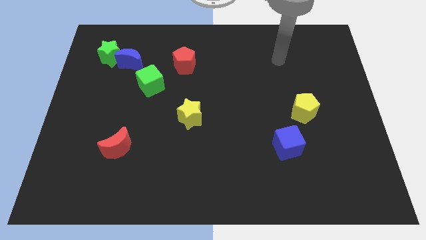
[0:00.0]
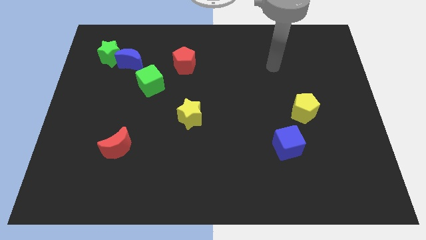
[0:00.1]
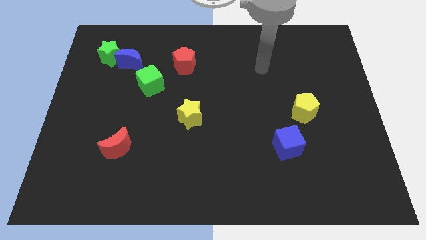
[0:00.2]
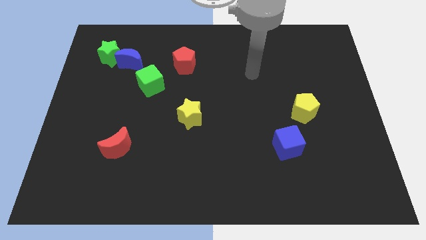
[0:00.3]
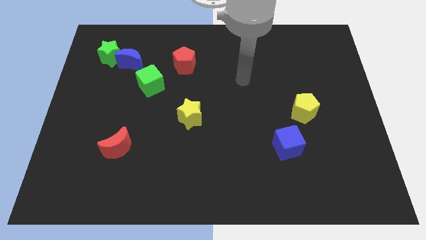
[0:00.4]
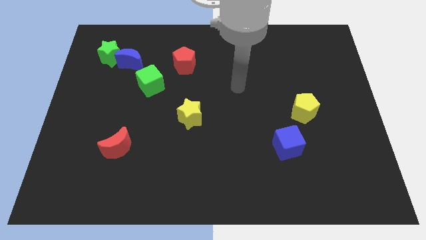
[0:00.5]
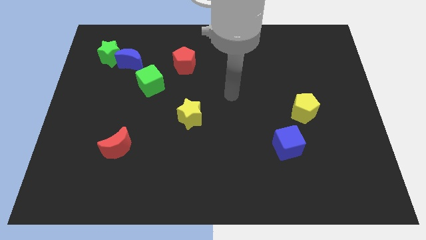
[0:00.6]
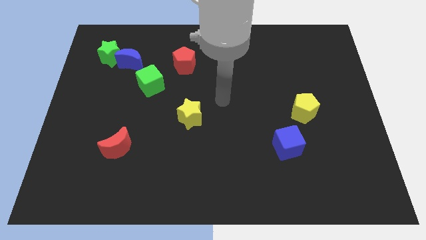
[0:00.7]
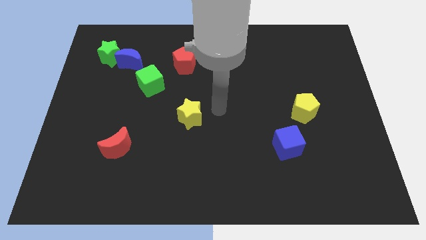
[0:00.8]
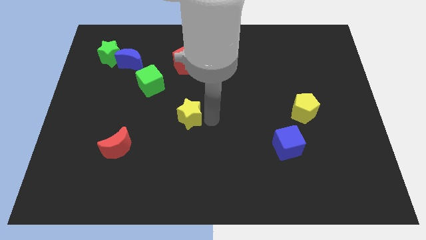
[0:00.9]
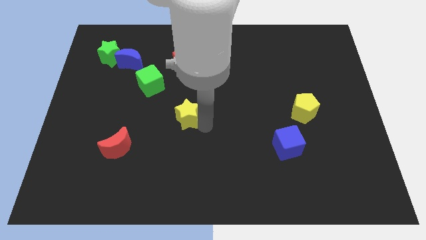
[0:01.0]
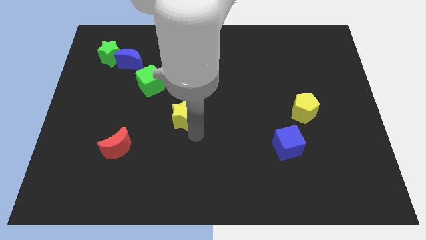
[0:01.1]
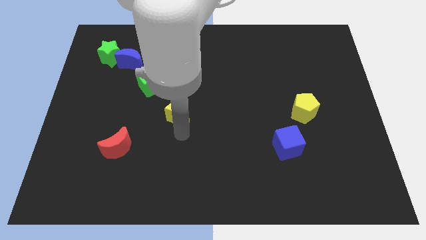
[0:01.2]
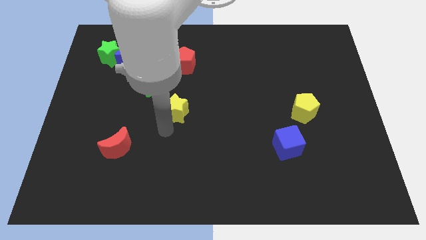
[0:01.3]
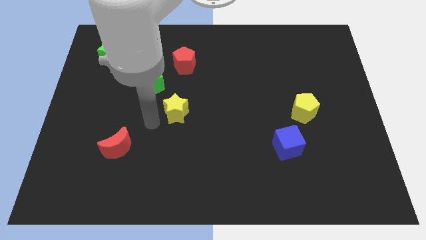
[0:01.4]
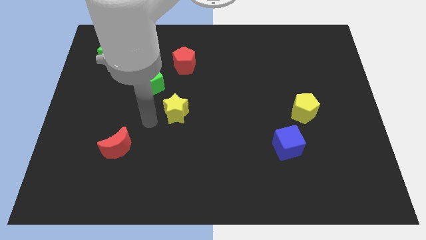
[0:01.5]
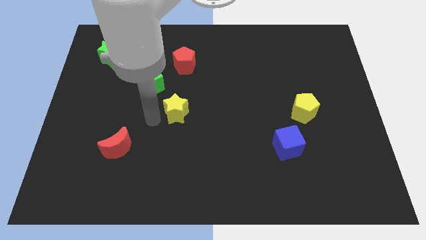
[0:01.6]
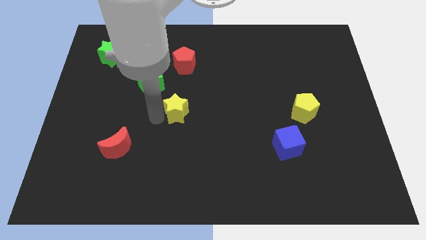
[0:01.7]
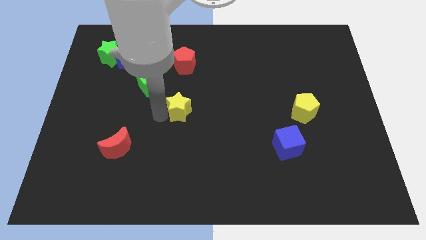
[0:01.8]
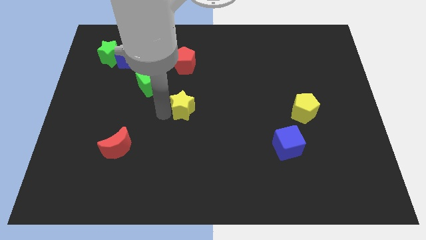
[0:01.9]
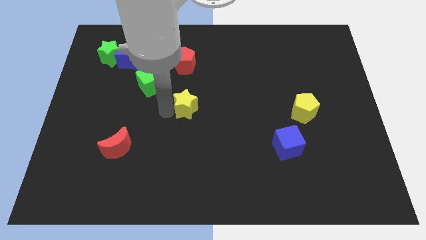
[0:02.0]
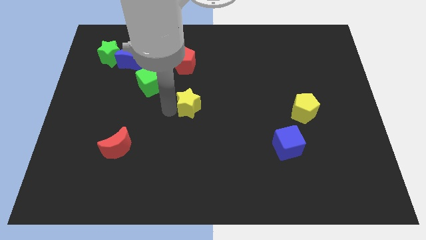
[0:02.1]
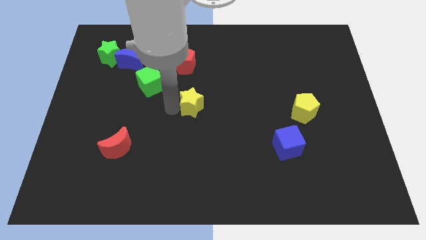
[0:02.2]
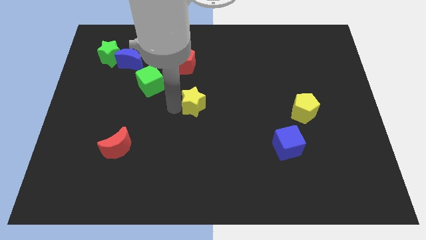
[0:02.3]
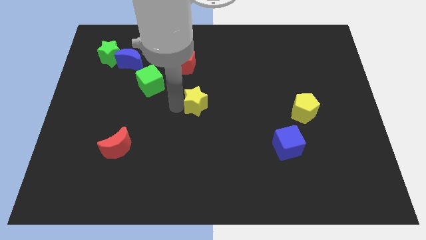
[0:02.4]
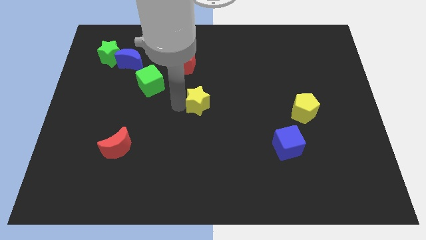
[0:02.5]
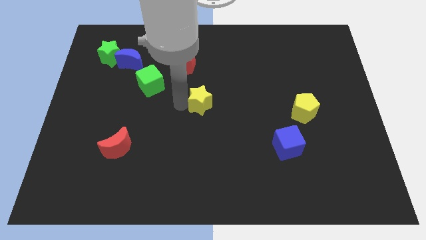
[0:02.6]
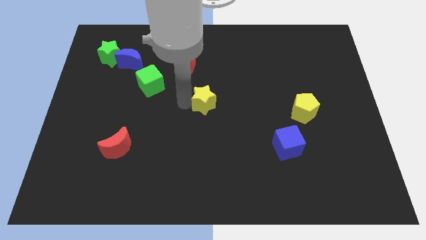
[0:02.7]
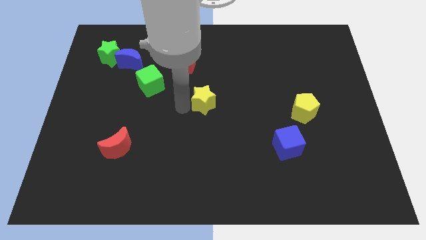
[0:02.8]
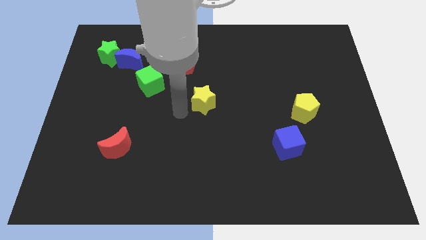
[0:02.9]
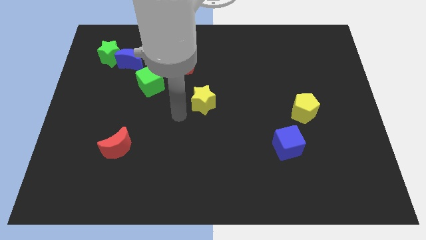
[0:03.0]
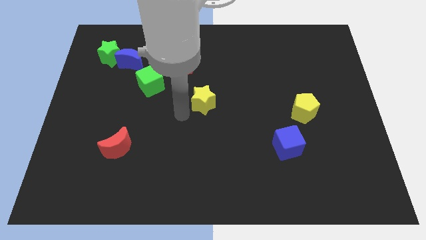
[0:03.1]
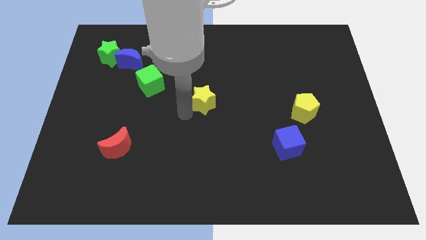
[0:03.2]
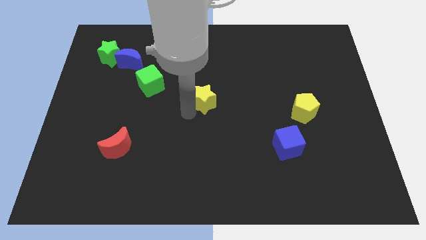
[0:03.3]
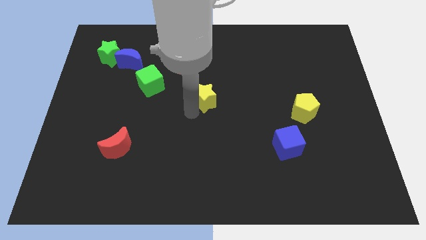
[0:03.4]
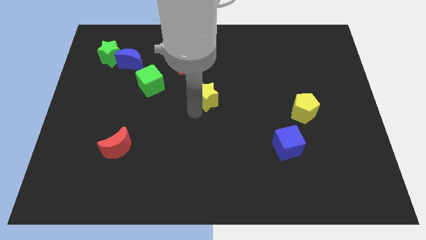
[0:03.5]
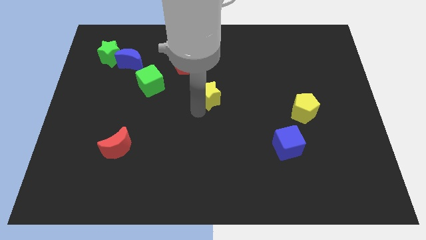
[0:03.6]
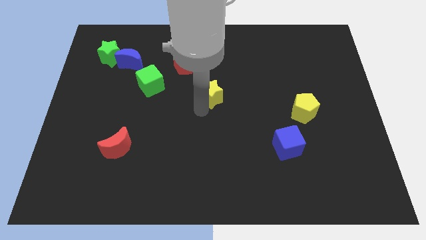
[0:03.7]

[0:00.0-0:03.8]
move the yellow star a little bit up and then to the right

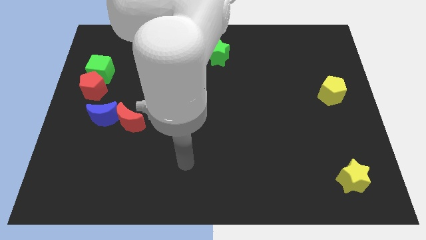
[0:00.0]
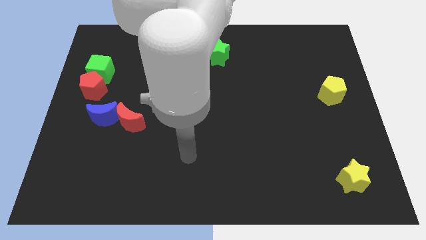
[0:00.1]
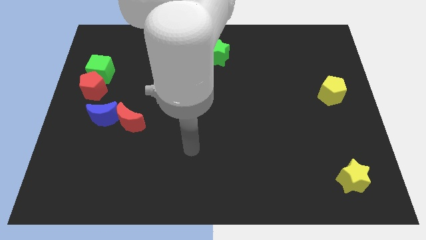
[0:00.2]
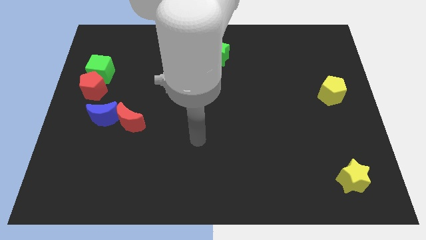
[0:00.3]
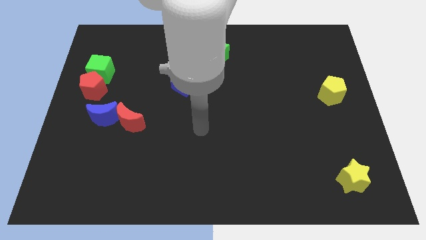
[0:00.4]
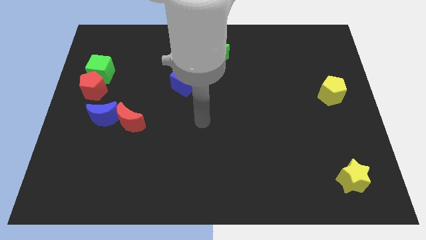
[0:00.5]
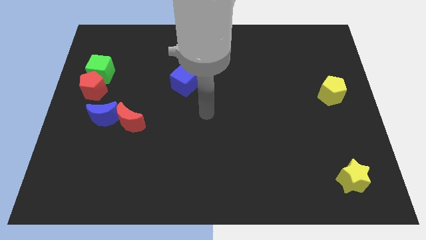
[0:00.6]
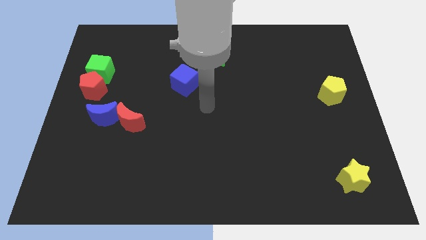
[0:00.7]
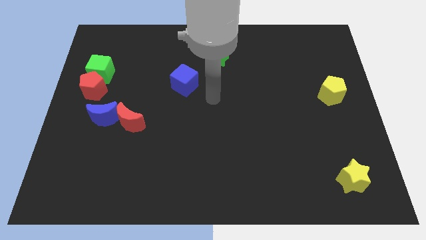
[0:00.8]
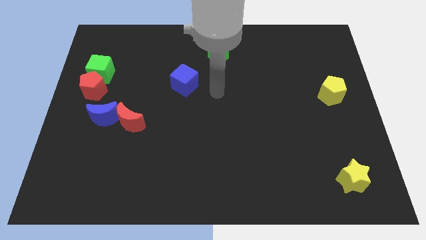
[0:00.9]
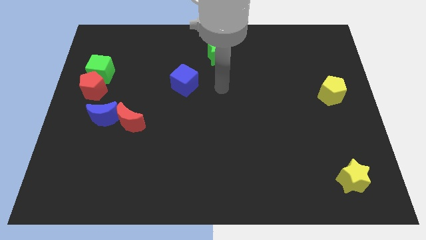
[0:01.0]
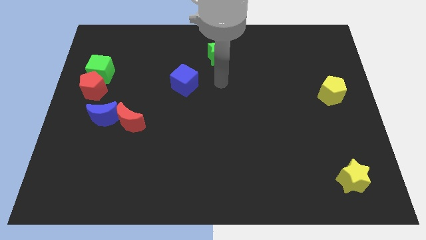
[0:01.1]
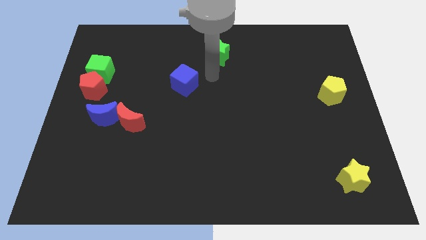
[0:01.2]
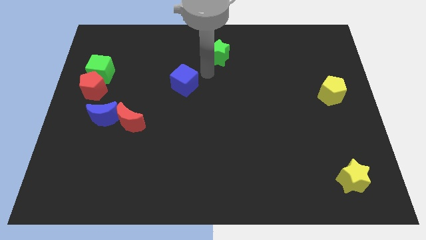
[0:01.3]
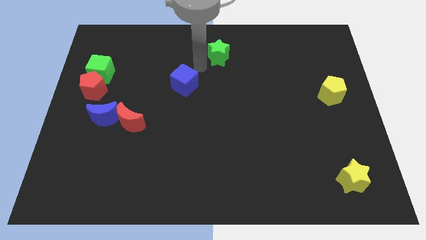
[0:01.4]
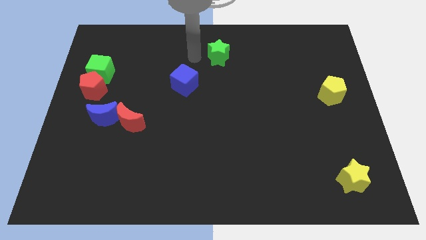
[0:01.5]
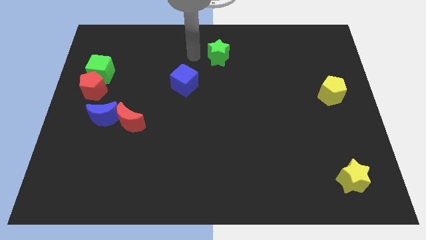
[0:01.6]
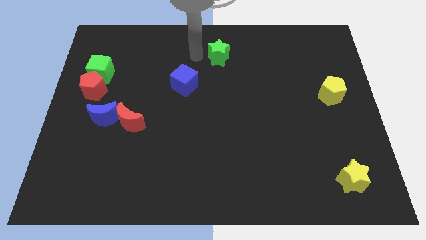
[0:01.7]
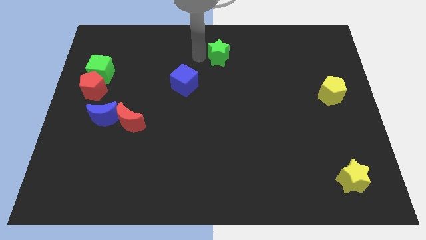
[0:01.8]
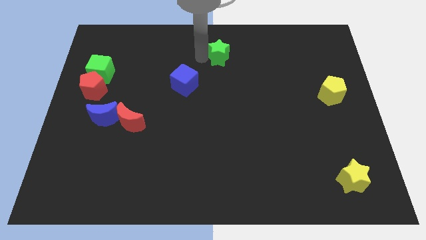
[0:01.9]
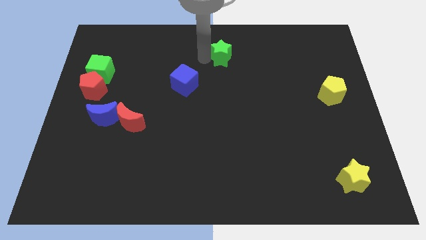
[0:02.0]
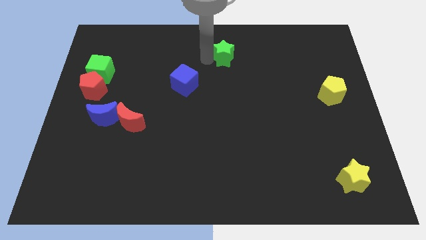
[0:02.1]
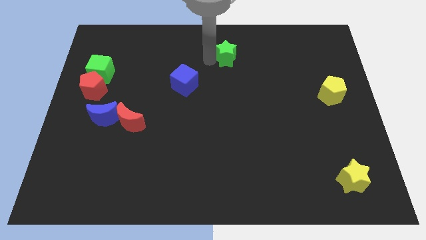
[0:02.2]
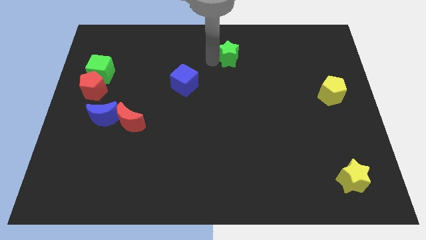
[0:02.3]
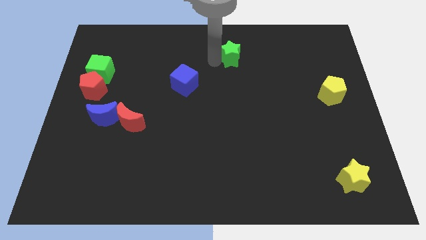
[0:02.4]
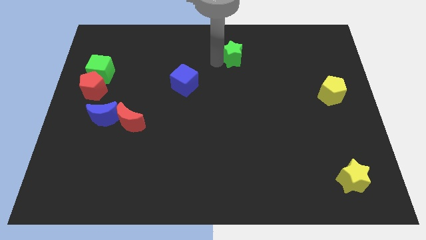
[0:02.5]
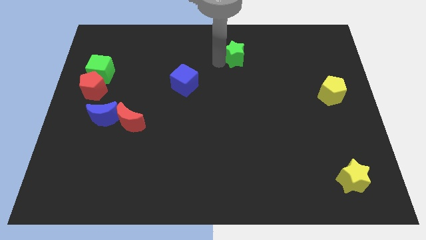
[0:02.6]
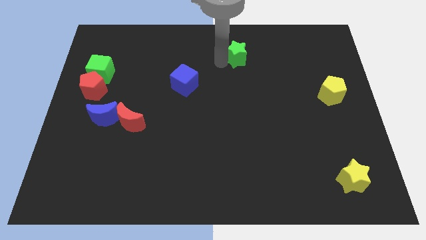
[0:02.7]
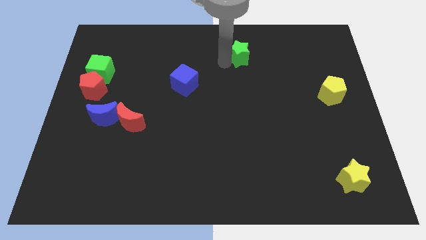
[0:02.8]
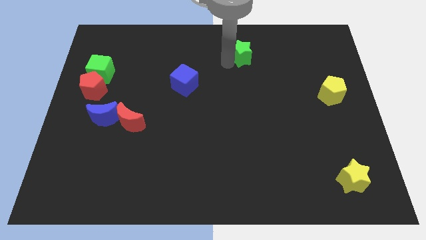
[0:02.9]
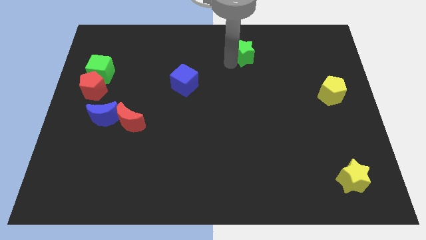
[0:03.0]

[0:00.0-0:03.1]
push the green star a little bit to the right

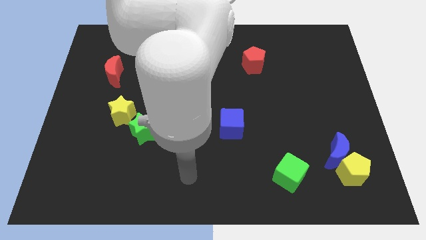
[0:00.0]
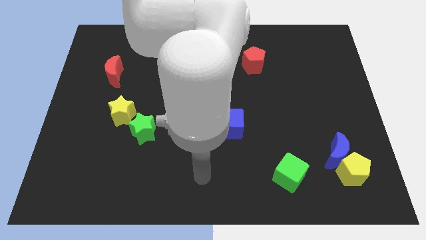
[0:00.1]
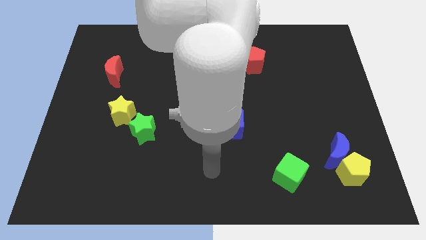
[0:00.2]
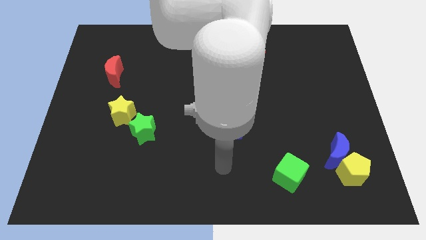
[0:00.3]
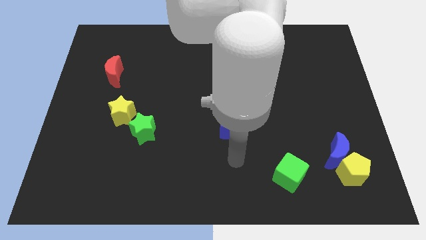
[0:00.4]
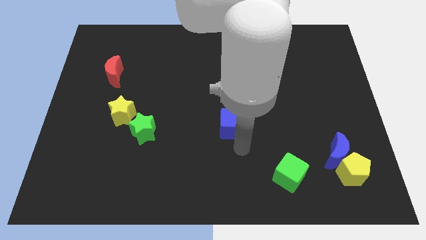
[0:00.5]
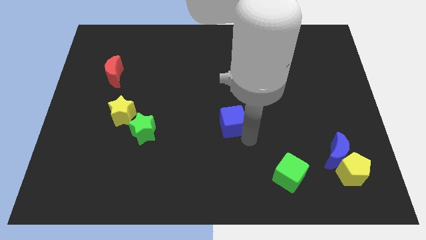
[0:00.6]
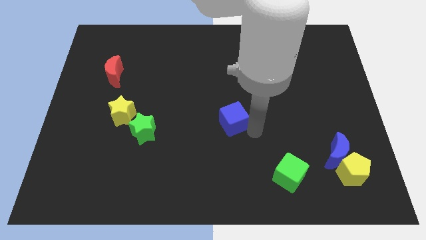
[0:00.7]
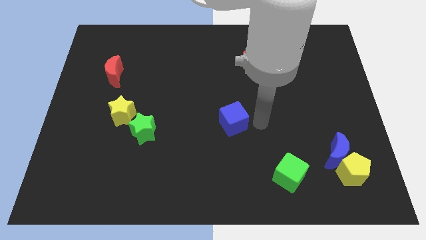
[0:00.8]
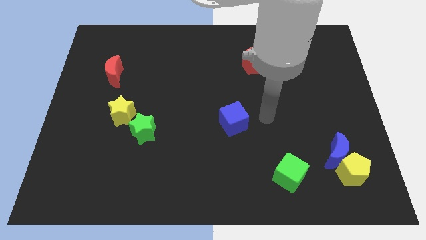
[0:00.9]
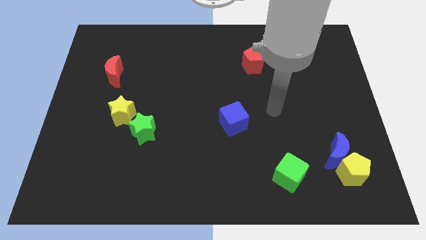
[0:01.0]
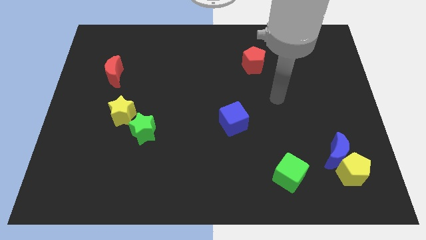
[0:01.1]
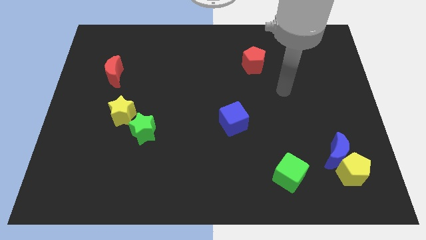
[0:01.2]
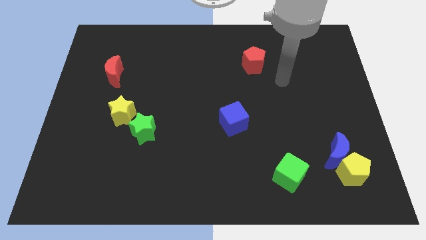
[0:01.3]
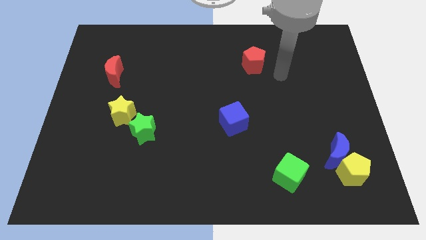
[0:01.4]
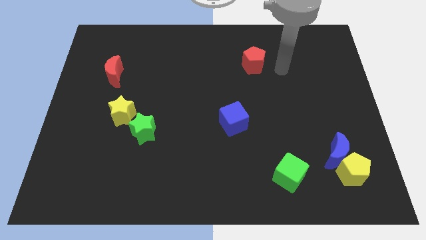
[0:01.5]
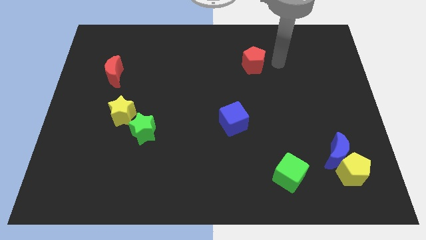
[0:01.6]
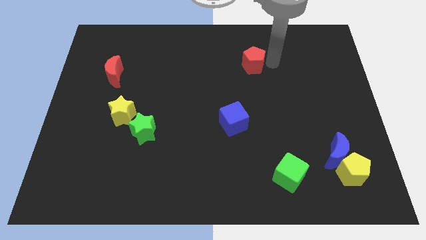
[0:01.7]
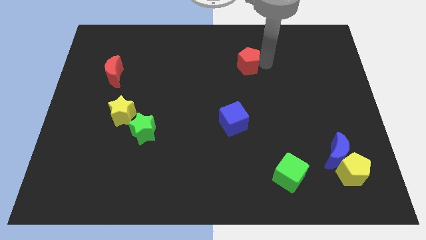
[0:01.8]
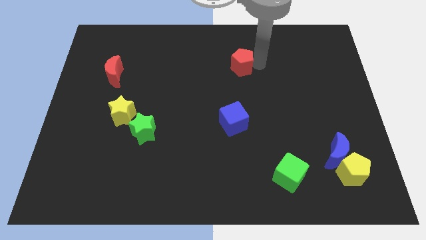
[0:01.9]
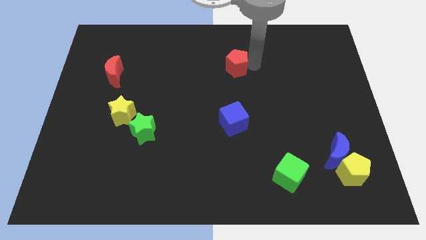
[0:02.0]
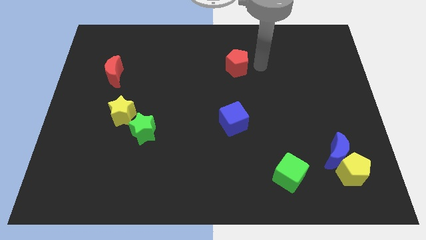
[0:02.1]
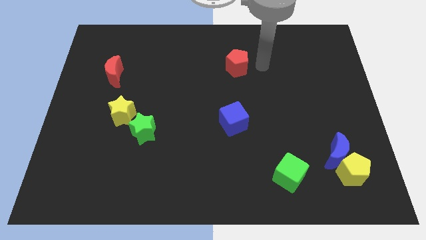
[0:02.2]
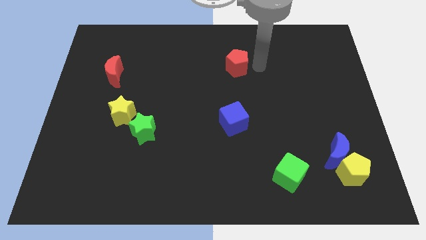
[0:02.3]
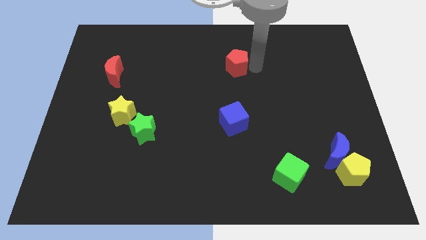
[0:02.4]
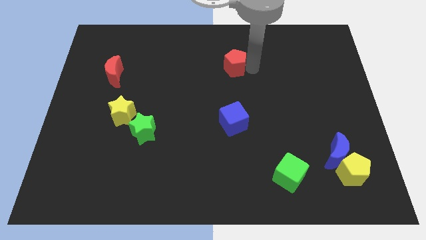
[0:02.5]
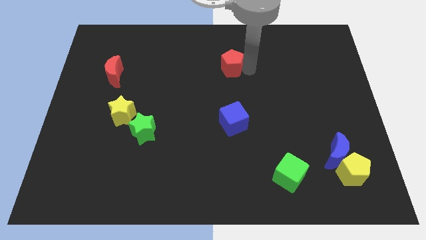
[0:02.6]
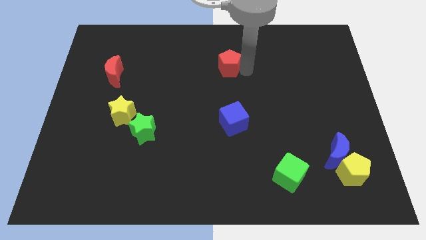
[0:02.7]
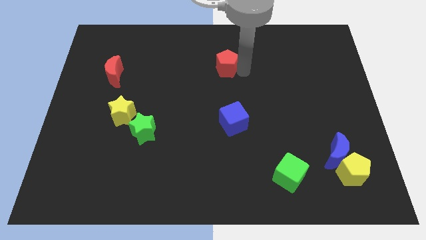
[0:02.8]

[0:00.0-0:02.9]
slightly push the red pentagon to the left
